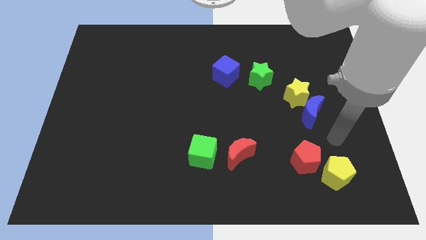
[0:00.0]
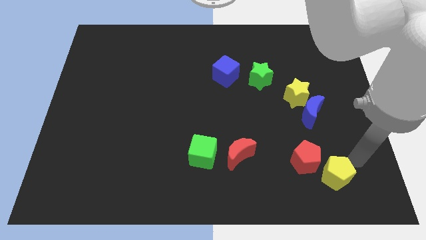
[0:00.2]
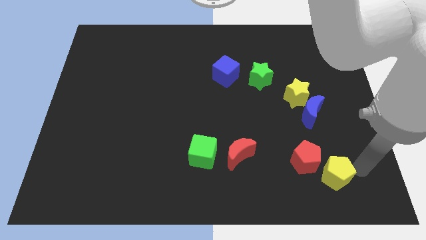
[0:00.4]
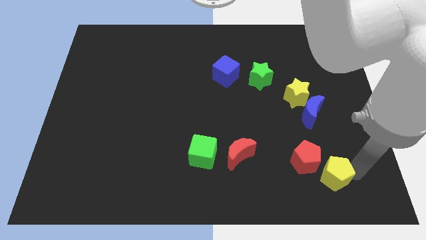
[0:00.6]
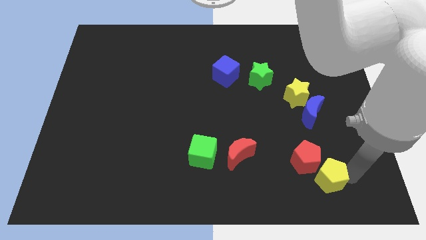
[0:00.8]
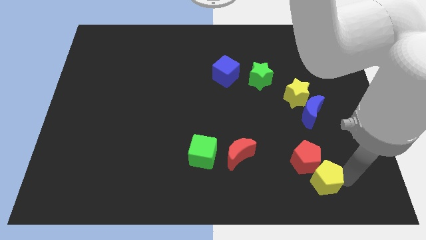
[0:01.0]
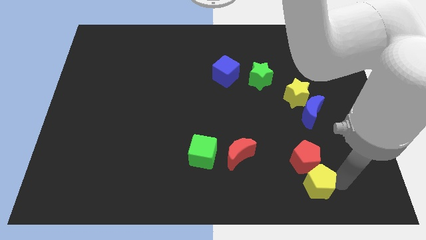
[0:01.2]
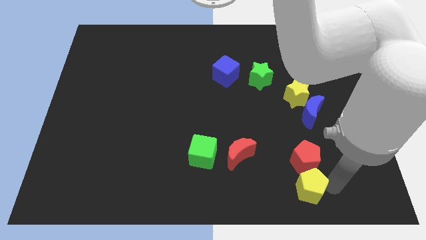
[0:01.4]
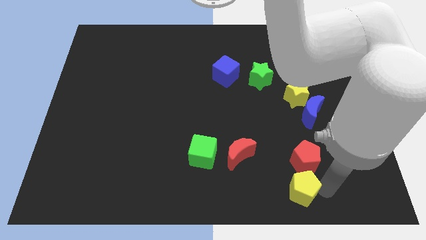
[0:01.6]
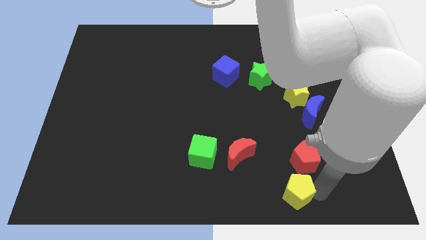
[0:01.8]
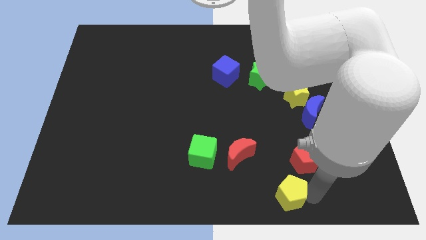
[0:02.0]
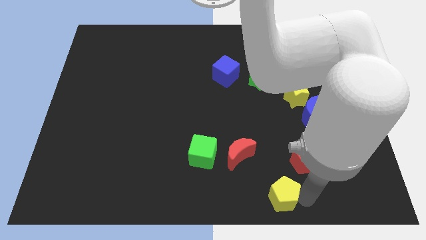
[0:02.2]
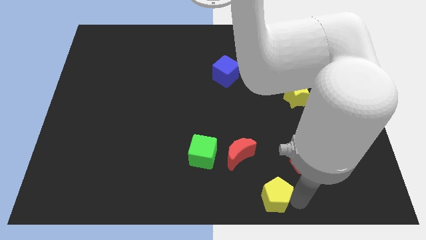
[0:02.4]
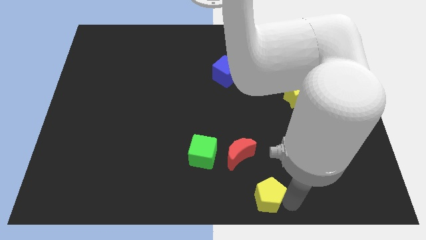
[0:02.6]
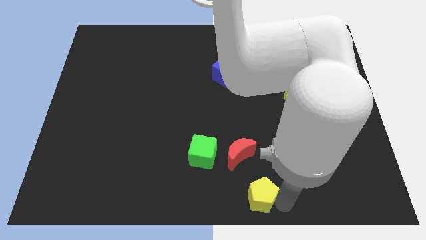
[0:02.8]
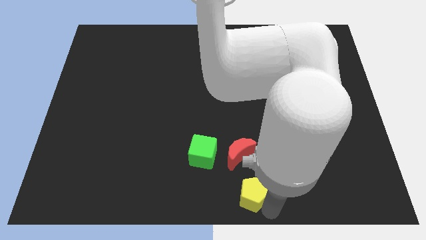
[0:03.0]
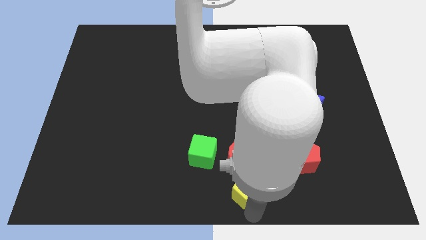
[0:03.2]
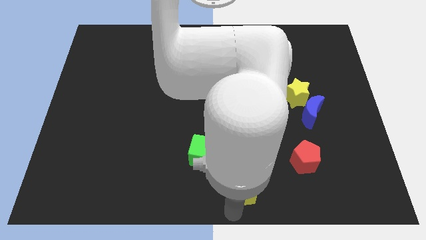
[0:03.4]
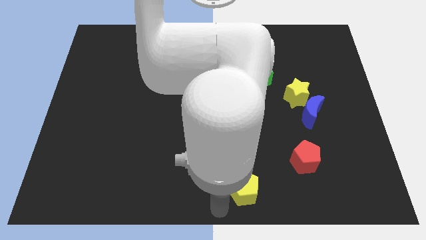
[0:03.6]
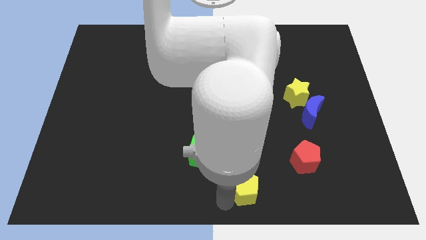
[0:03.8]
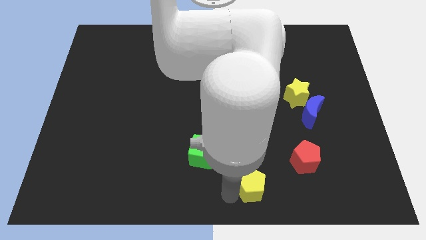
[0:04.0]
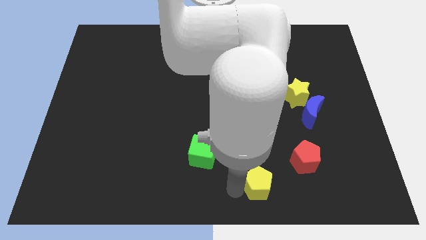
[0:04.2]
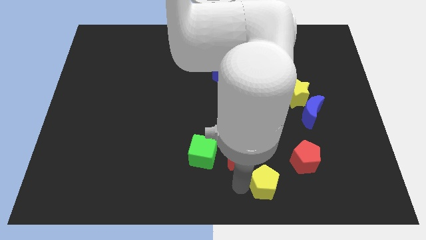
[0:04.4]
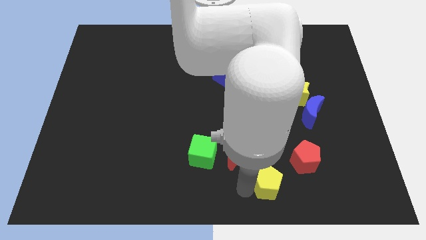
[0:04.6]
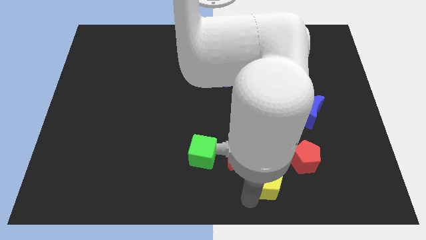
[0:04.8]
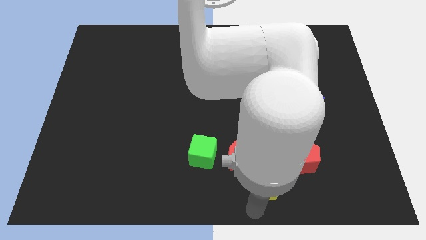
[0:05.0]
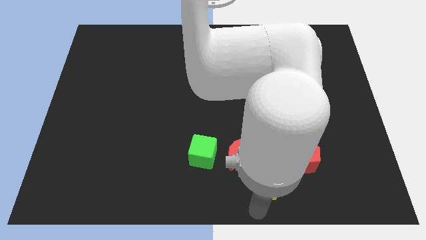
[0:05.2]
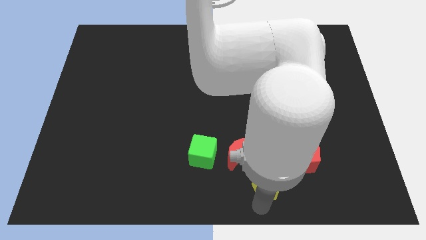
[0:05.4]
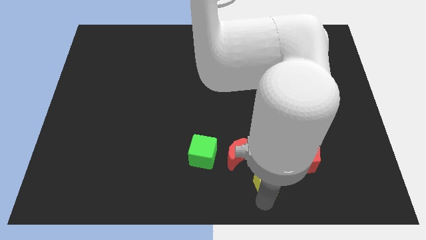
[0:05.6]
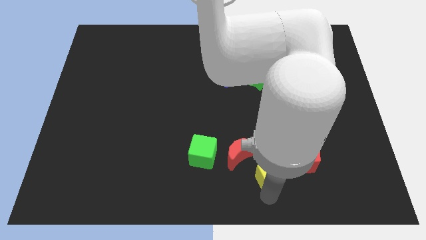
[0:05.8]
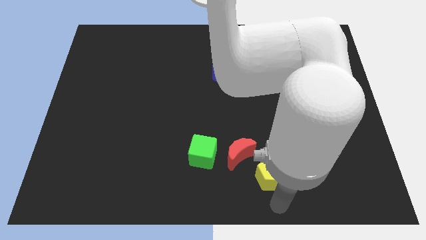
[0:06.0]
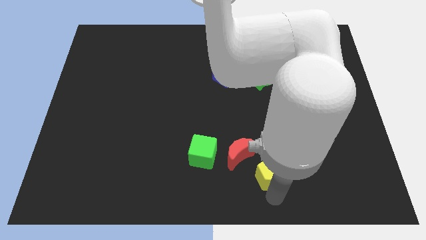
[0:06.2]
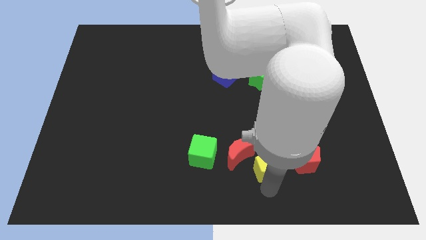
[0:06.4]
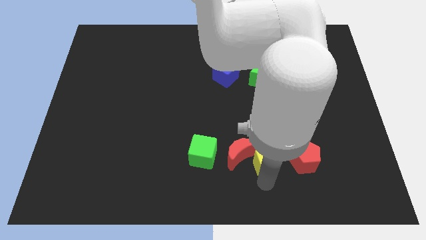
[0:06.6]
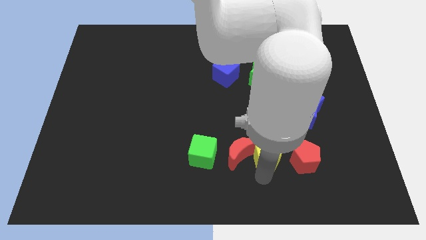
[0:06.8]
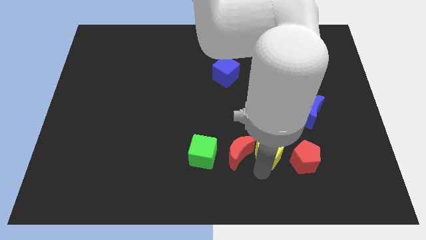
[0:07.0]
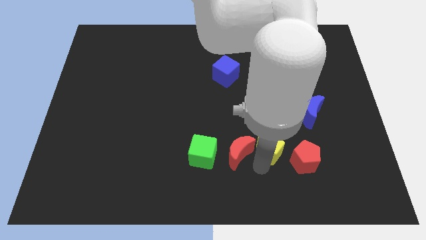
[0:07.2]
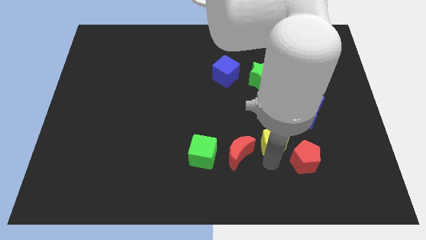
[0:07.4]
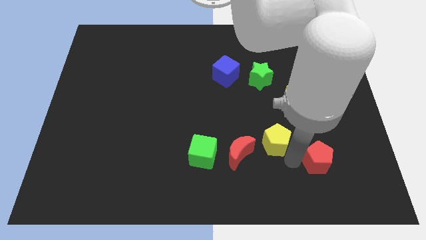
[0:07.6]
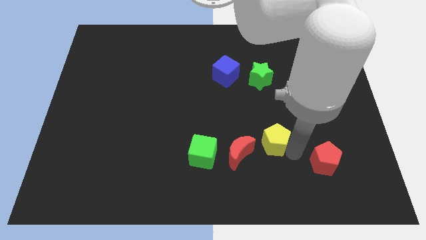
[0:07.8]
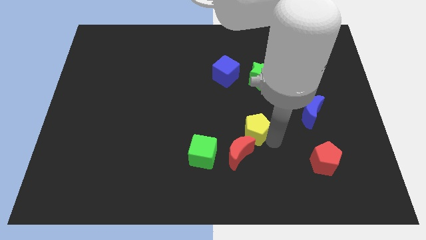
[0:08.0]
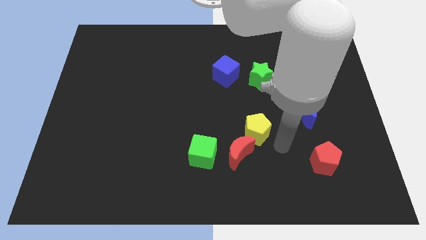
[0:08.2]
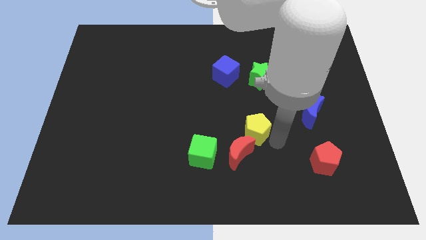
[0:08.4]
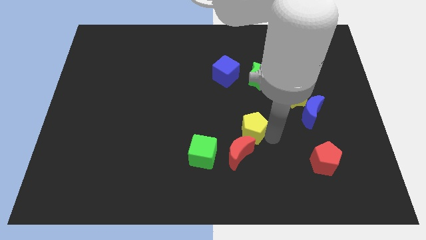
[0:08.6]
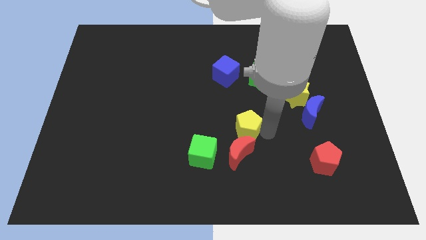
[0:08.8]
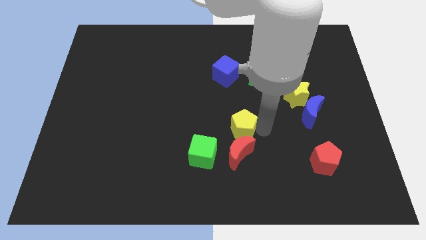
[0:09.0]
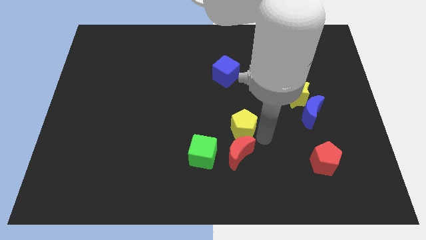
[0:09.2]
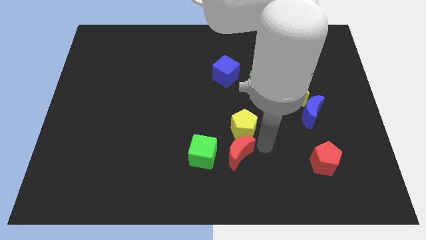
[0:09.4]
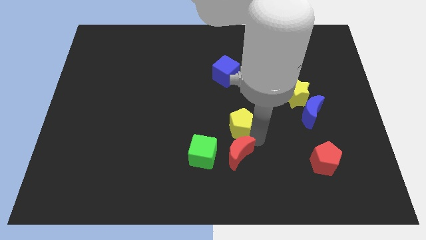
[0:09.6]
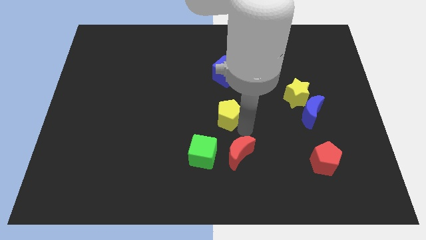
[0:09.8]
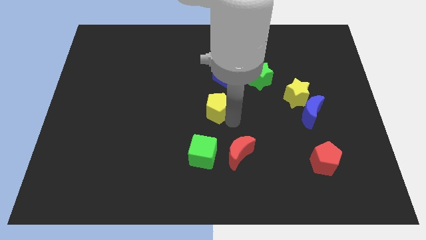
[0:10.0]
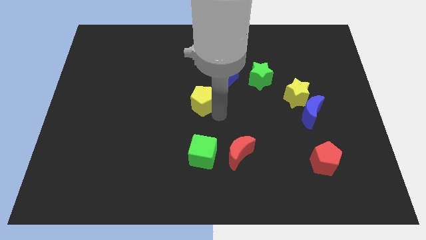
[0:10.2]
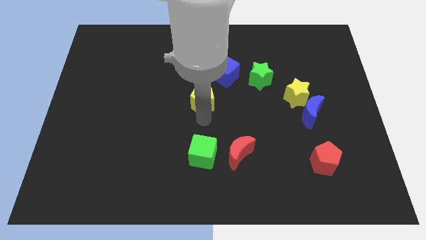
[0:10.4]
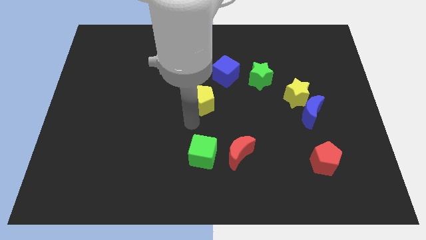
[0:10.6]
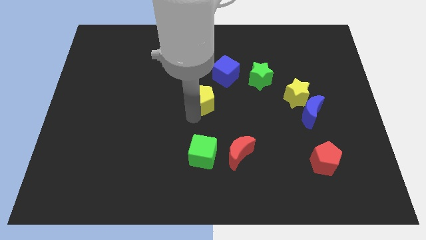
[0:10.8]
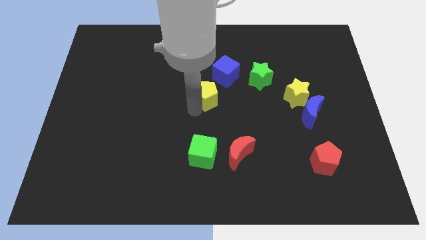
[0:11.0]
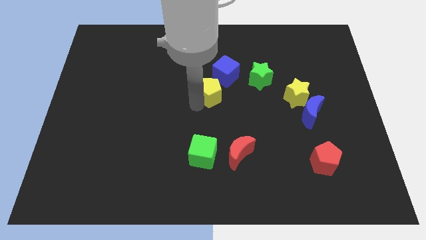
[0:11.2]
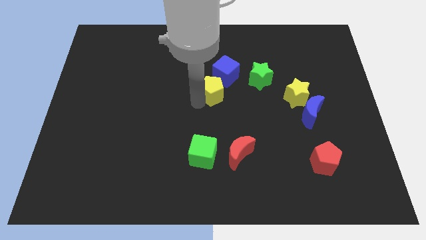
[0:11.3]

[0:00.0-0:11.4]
push the yellow pentagon just left of the green star
